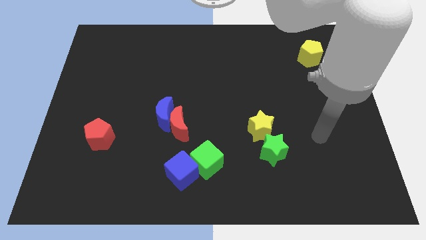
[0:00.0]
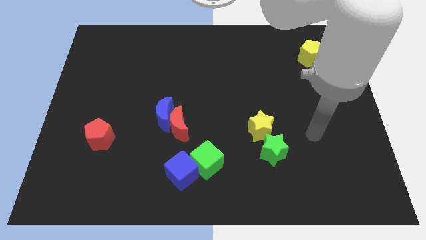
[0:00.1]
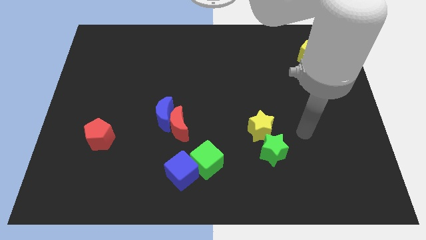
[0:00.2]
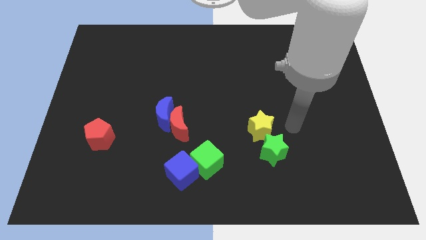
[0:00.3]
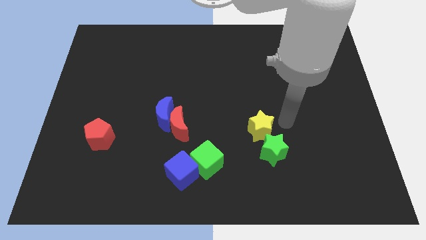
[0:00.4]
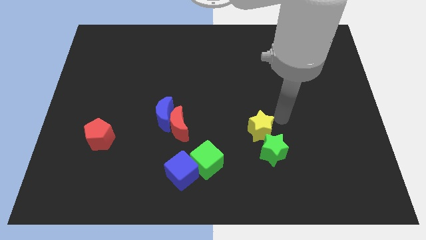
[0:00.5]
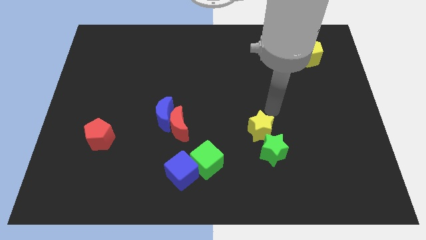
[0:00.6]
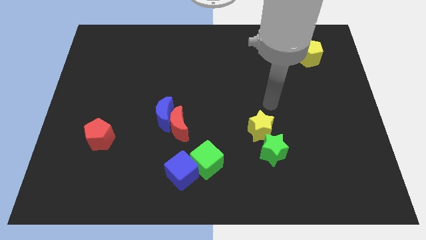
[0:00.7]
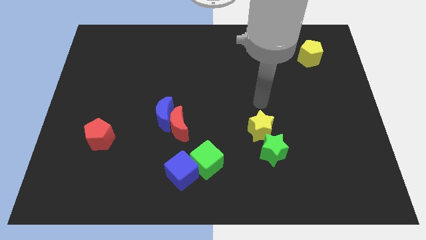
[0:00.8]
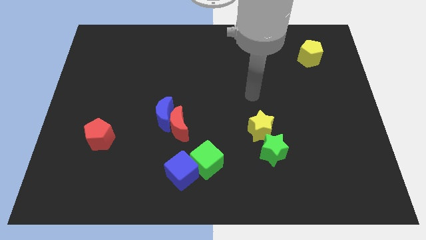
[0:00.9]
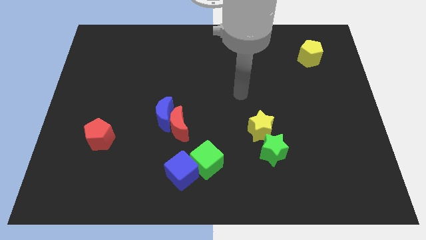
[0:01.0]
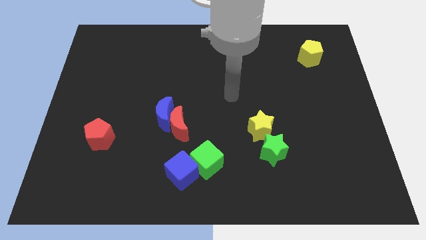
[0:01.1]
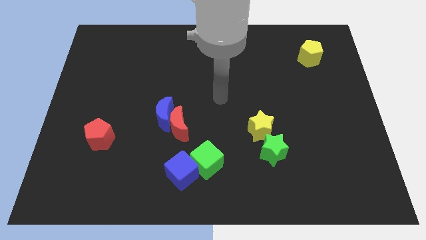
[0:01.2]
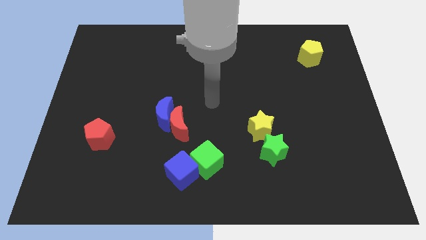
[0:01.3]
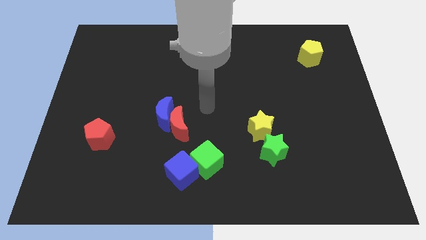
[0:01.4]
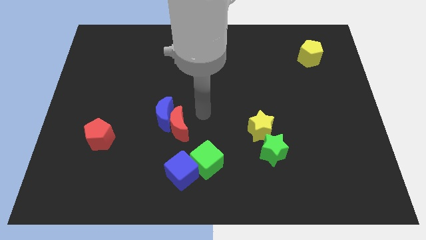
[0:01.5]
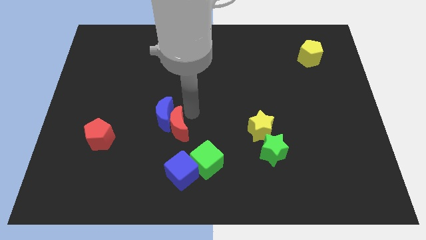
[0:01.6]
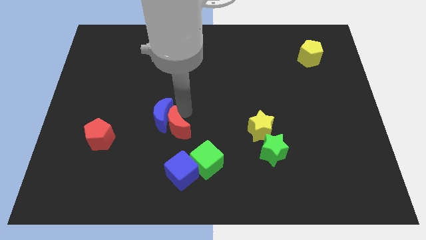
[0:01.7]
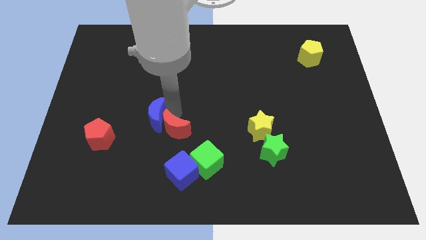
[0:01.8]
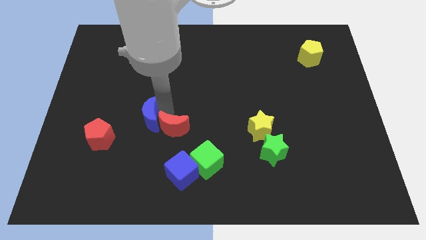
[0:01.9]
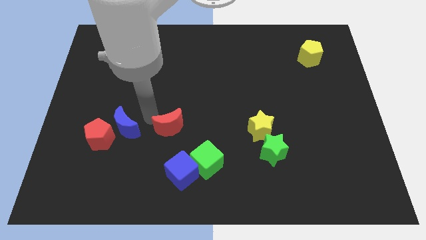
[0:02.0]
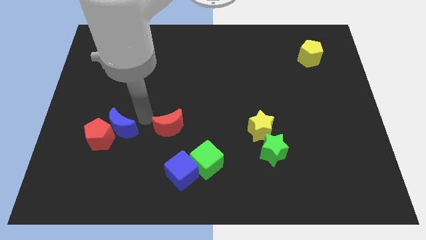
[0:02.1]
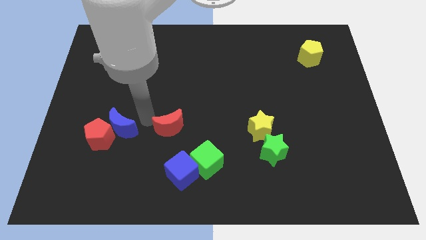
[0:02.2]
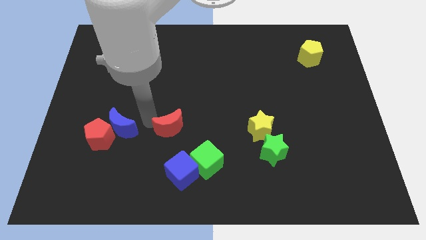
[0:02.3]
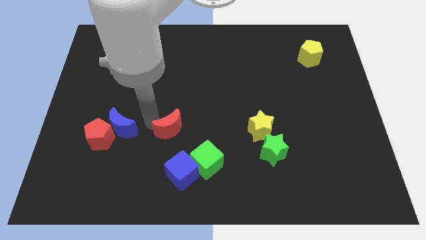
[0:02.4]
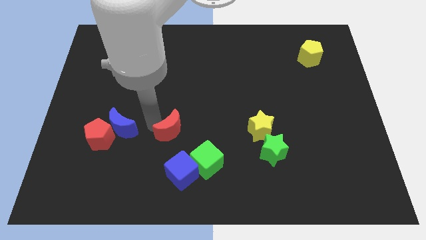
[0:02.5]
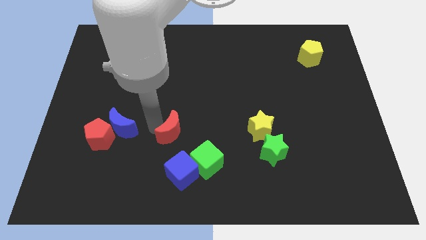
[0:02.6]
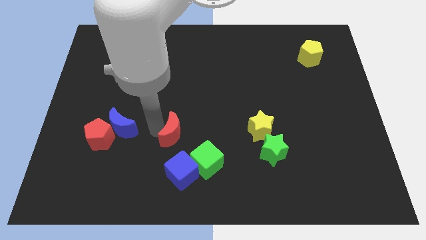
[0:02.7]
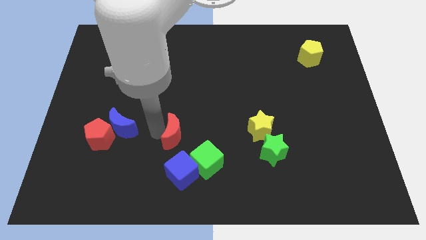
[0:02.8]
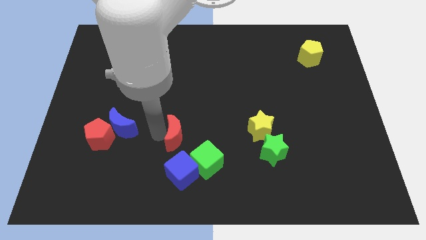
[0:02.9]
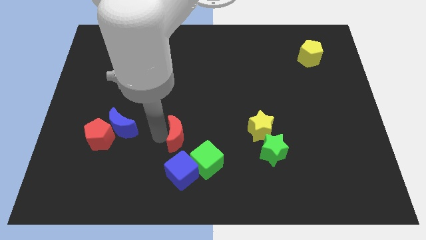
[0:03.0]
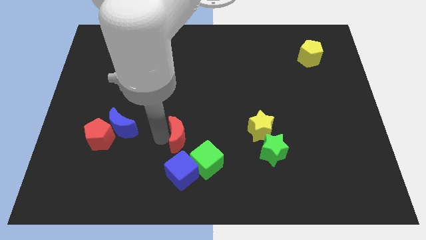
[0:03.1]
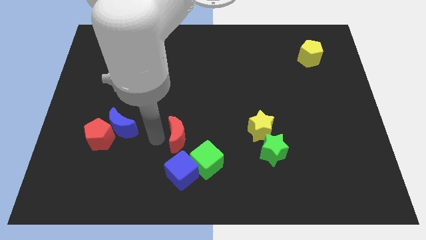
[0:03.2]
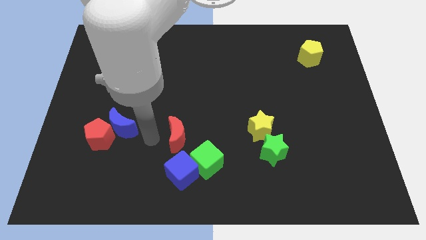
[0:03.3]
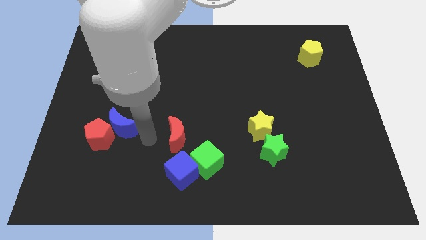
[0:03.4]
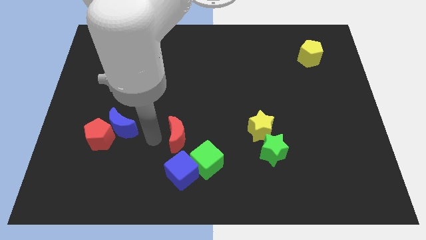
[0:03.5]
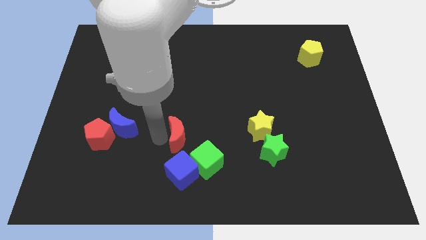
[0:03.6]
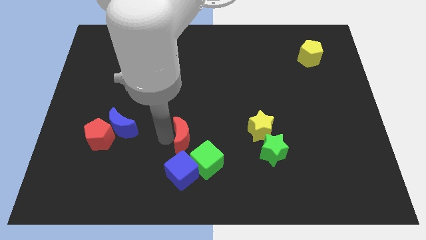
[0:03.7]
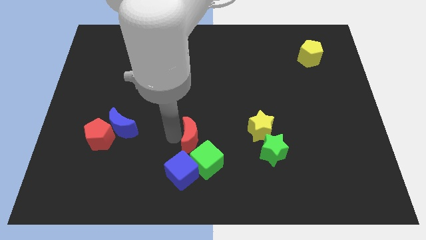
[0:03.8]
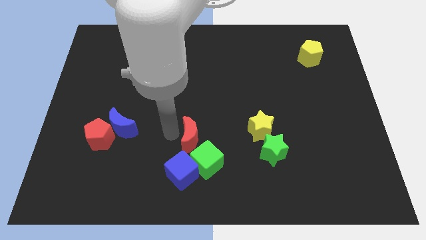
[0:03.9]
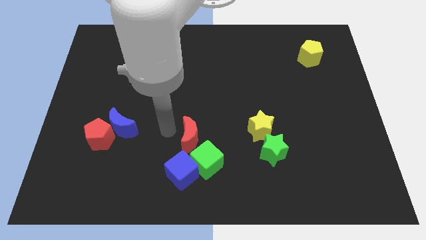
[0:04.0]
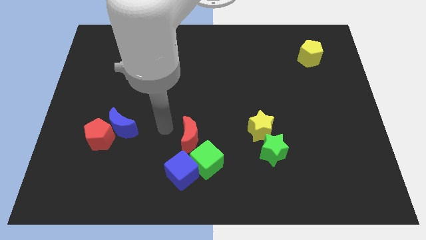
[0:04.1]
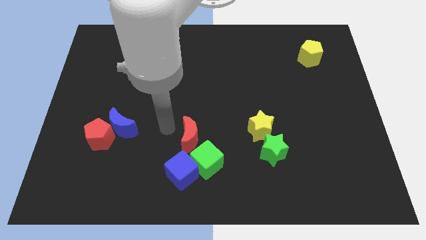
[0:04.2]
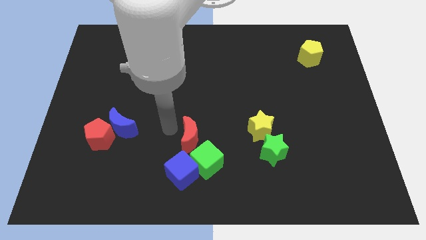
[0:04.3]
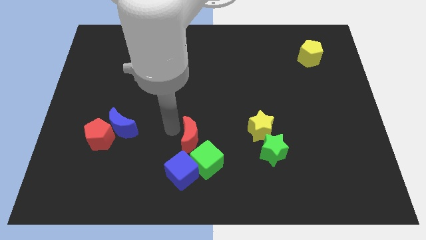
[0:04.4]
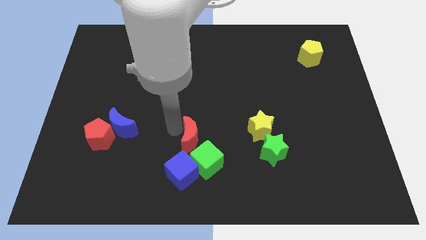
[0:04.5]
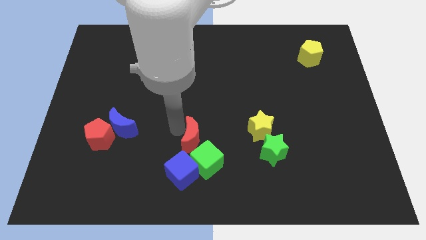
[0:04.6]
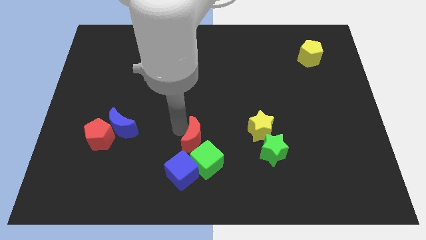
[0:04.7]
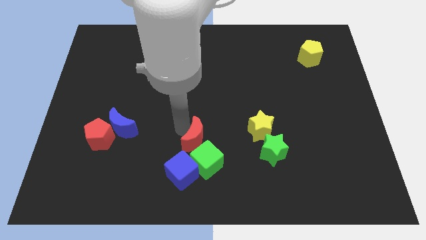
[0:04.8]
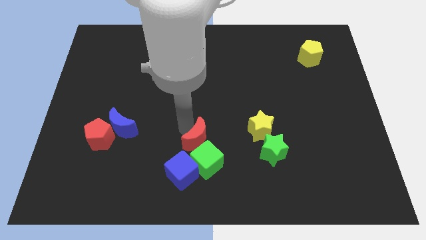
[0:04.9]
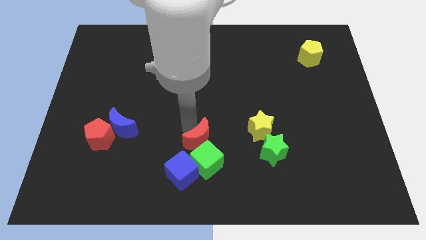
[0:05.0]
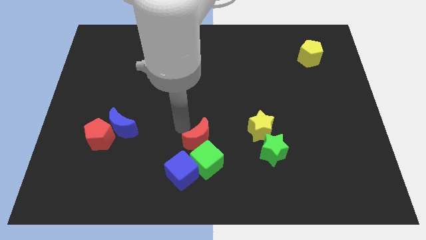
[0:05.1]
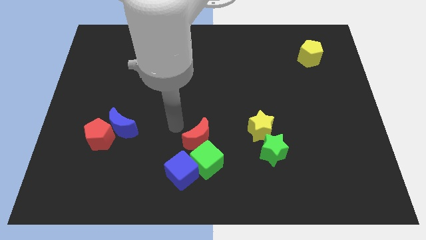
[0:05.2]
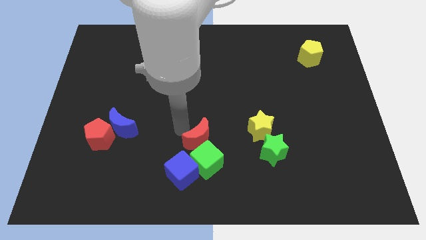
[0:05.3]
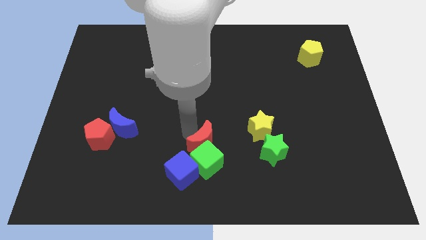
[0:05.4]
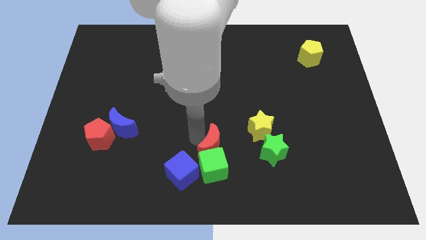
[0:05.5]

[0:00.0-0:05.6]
slightly move the red moon down and right

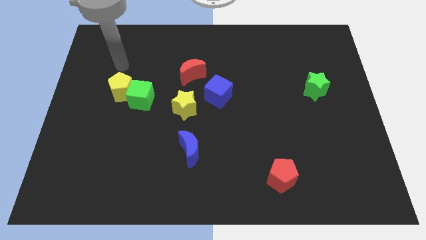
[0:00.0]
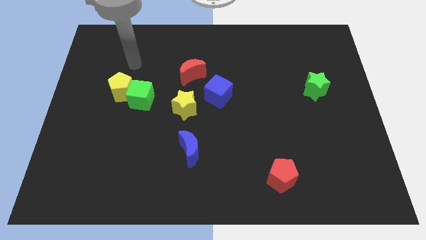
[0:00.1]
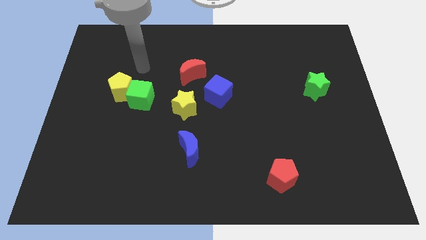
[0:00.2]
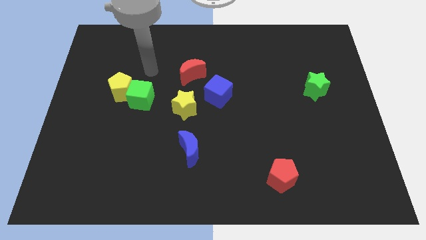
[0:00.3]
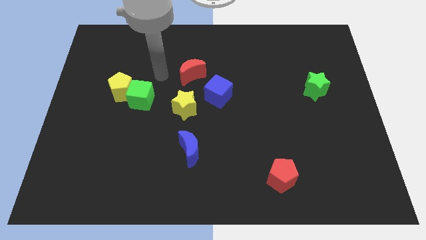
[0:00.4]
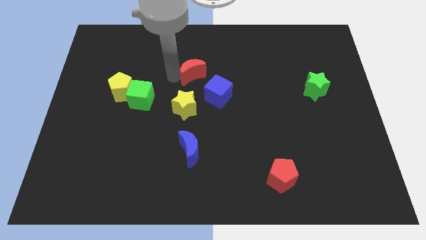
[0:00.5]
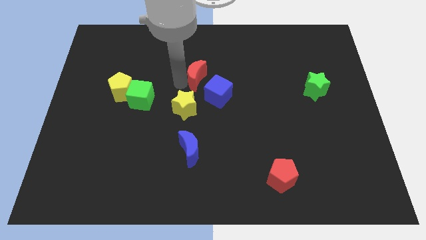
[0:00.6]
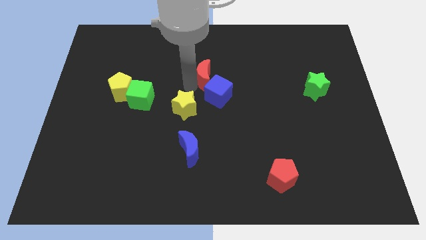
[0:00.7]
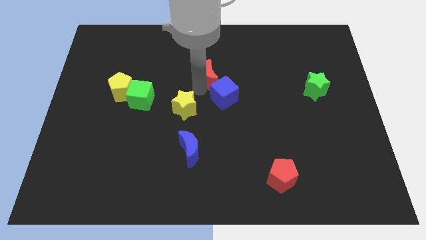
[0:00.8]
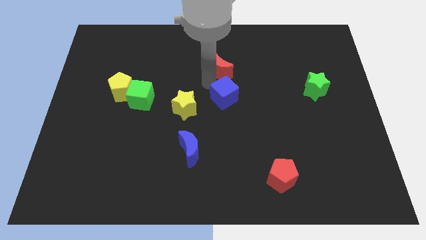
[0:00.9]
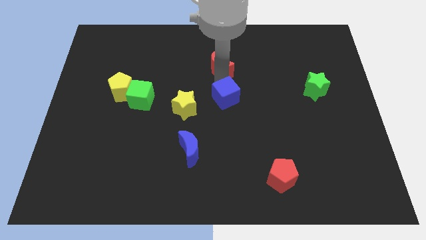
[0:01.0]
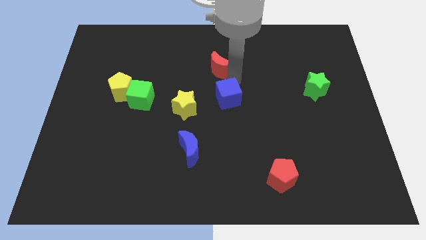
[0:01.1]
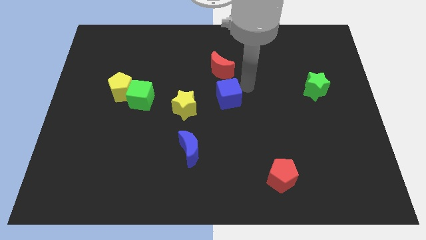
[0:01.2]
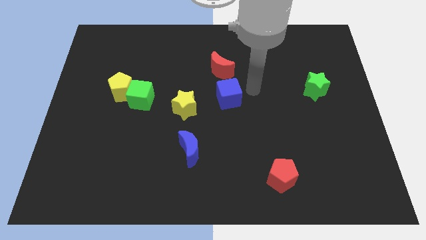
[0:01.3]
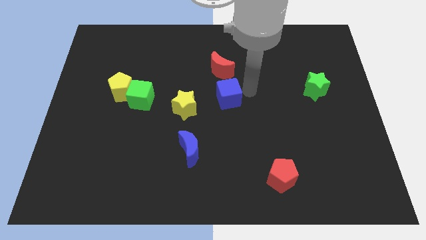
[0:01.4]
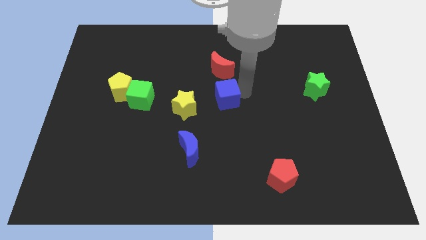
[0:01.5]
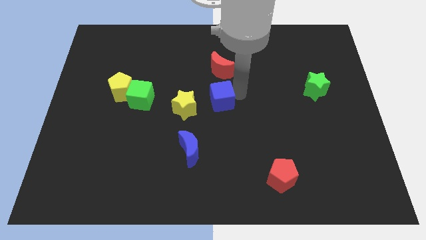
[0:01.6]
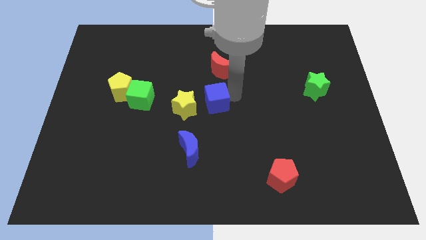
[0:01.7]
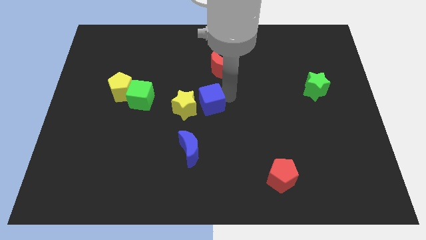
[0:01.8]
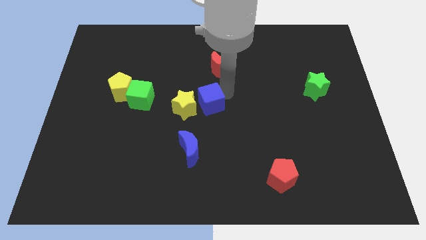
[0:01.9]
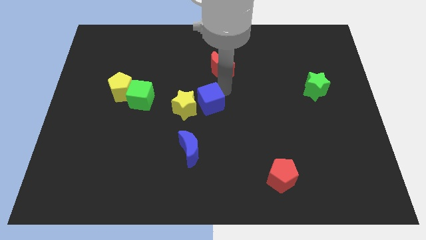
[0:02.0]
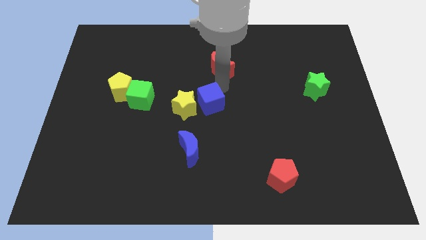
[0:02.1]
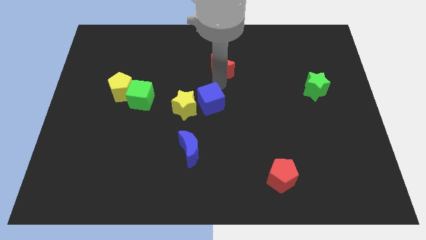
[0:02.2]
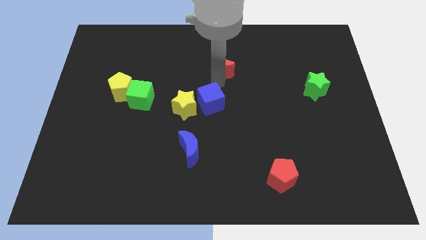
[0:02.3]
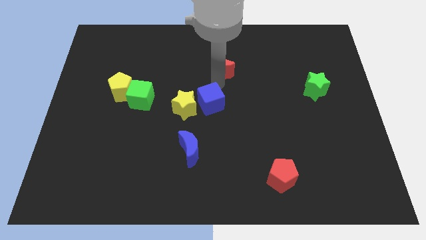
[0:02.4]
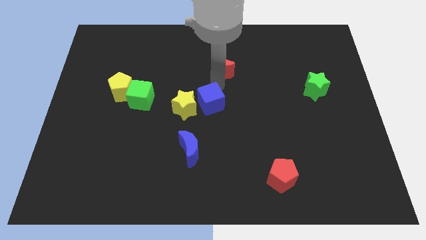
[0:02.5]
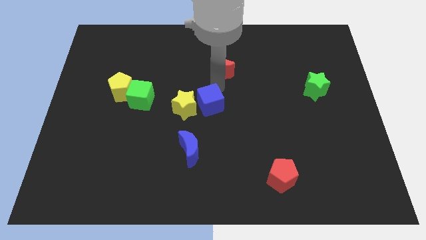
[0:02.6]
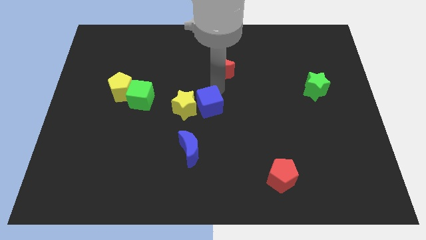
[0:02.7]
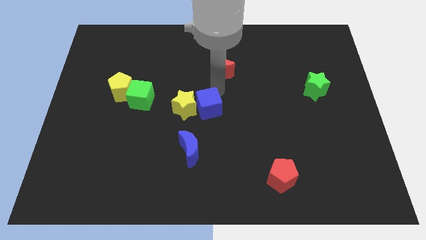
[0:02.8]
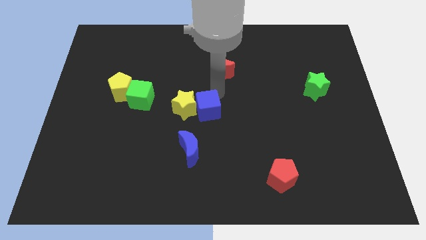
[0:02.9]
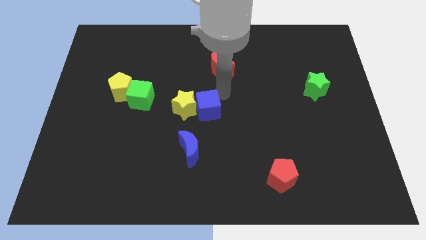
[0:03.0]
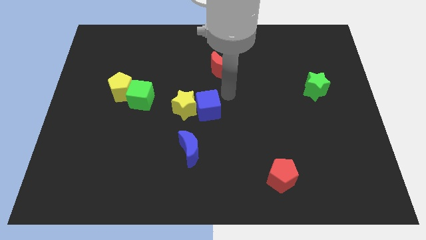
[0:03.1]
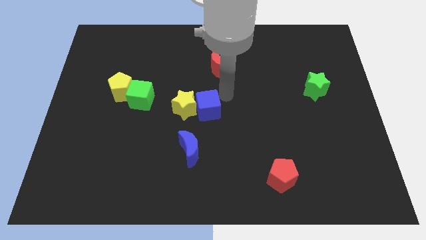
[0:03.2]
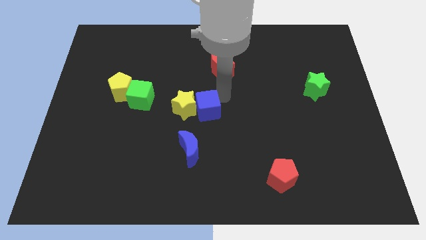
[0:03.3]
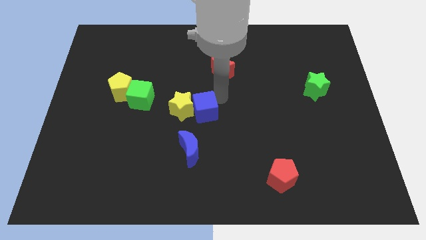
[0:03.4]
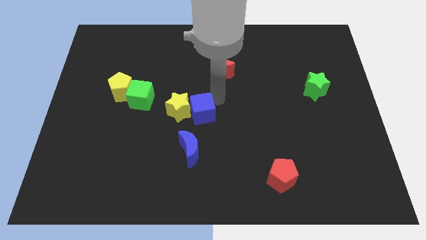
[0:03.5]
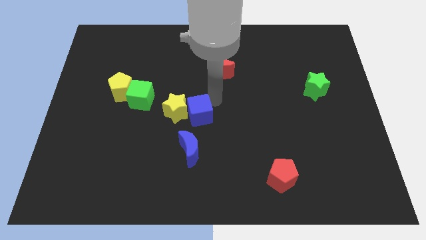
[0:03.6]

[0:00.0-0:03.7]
slightly push the blue cube downwards and to the left diagonally
